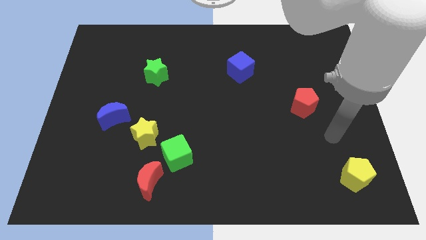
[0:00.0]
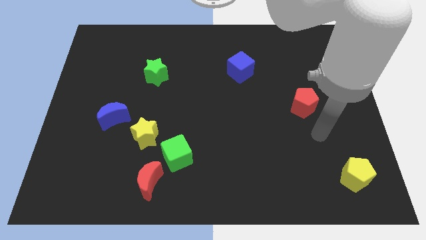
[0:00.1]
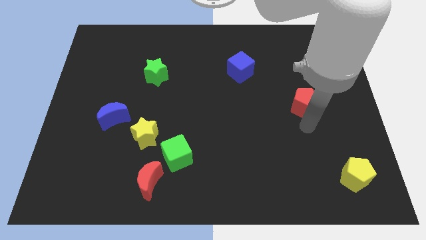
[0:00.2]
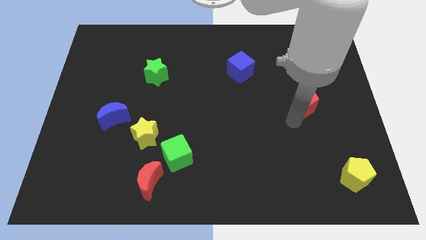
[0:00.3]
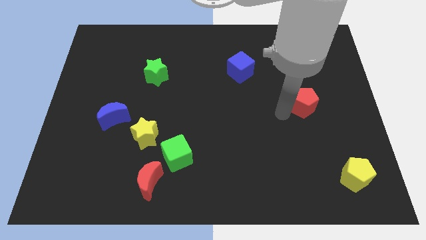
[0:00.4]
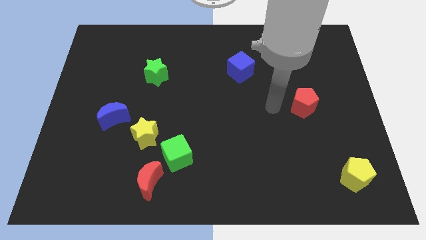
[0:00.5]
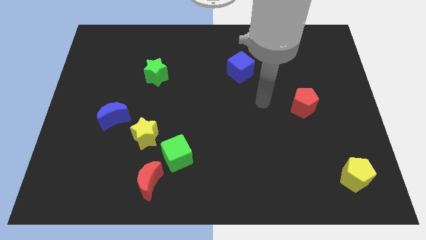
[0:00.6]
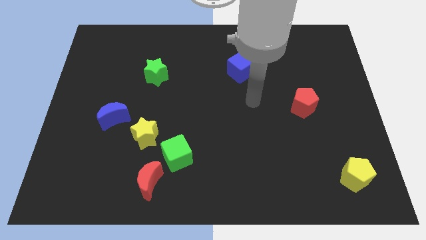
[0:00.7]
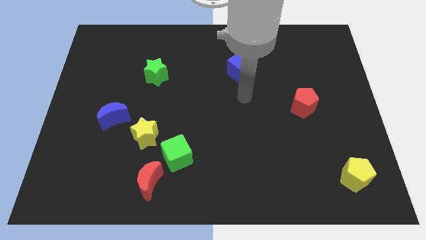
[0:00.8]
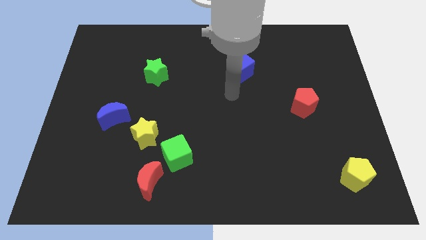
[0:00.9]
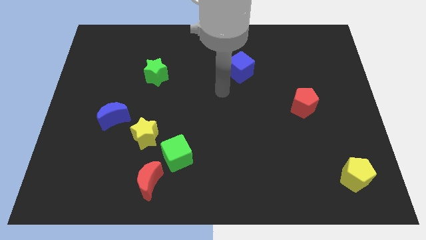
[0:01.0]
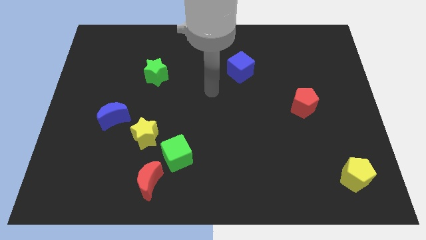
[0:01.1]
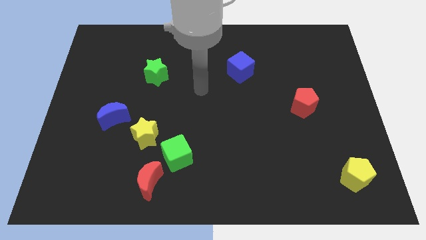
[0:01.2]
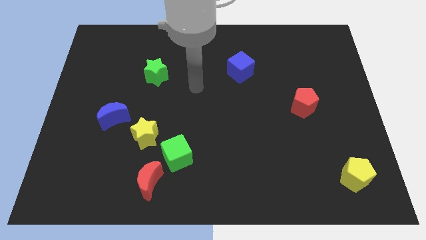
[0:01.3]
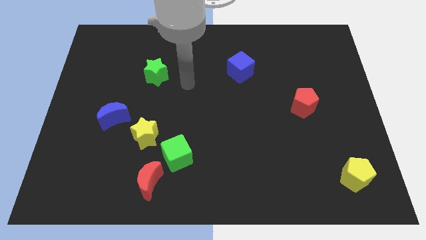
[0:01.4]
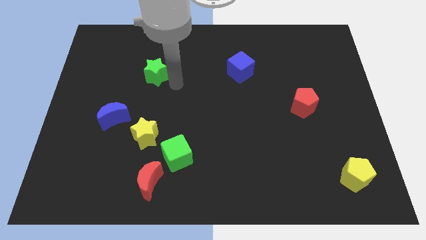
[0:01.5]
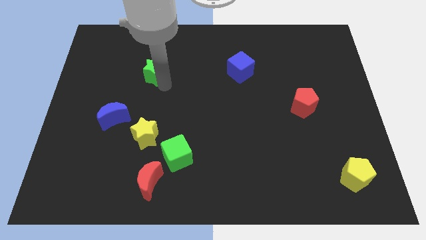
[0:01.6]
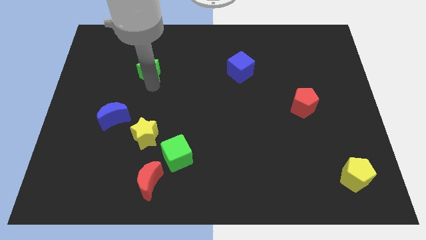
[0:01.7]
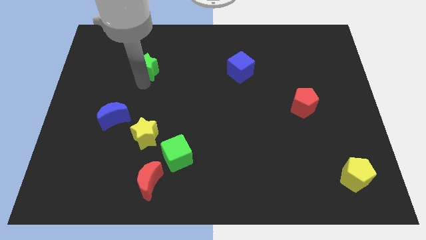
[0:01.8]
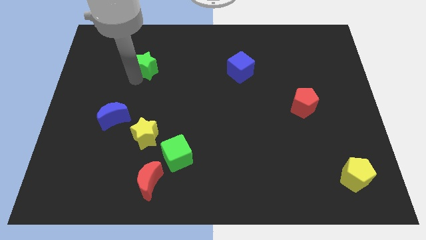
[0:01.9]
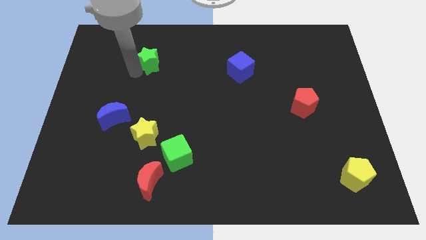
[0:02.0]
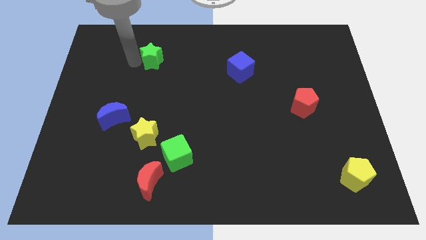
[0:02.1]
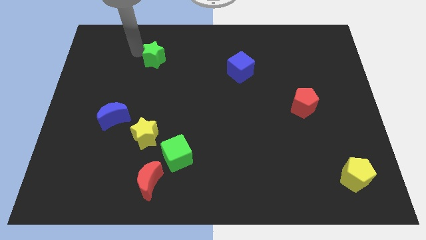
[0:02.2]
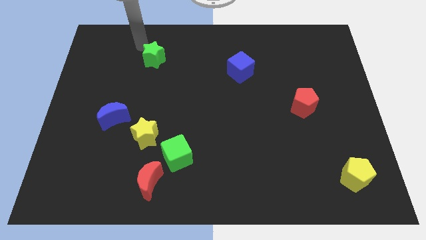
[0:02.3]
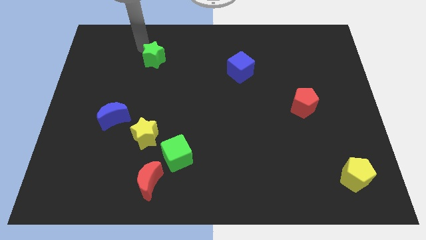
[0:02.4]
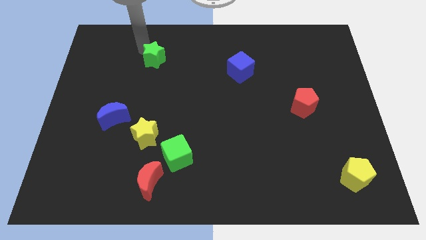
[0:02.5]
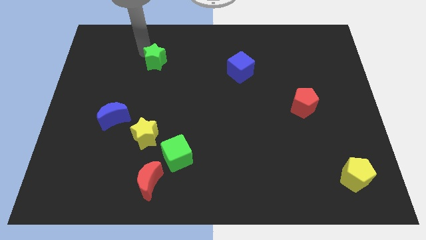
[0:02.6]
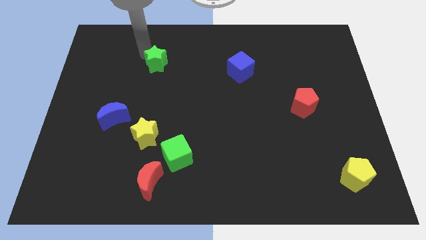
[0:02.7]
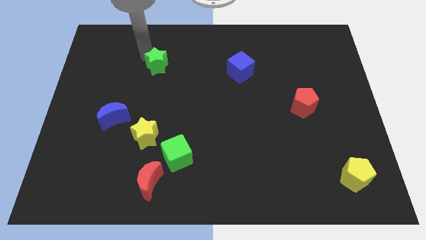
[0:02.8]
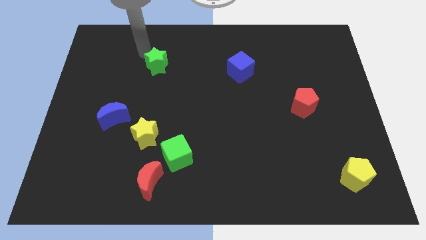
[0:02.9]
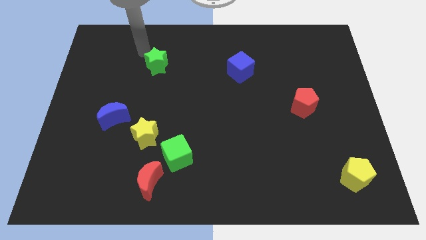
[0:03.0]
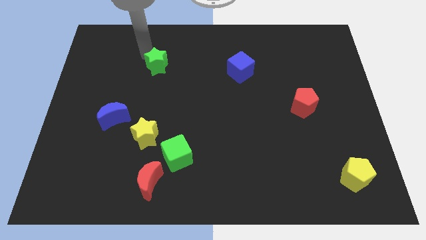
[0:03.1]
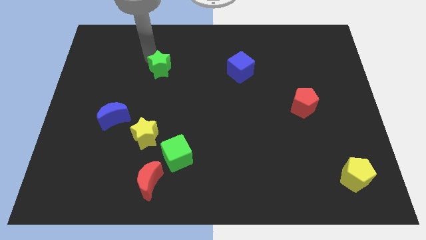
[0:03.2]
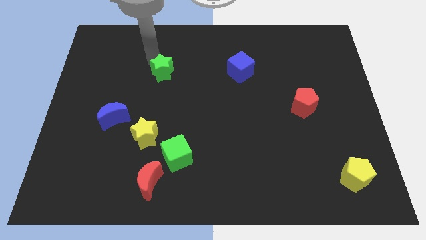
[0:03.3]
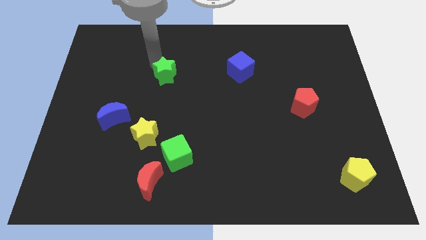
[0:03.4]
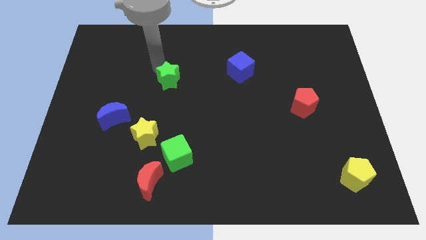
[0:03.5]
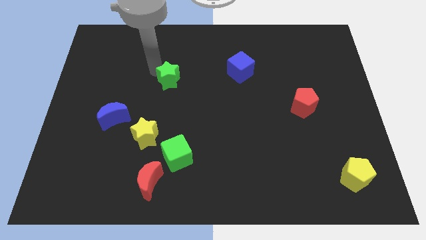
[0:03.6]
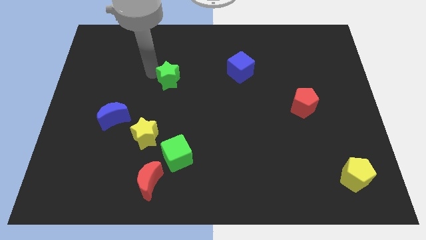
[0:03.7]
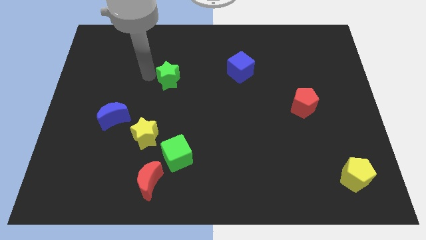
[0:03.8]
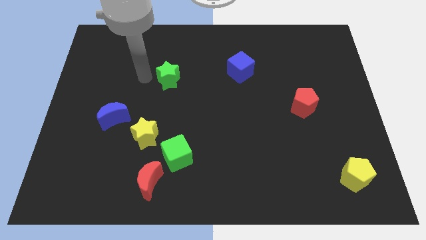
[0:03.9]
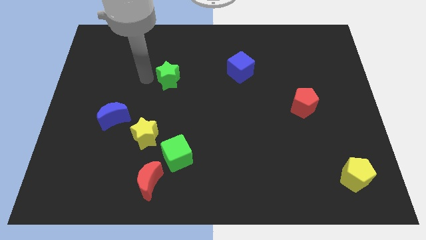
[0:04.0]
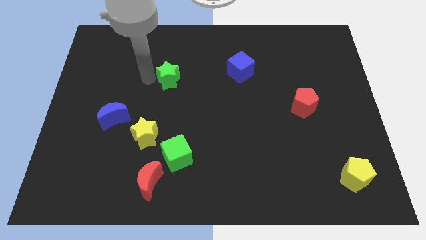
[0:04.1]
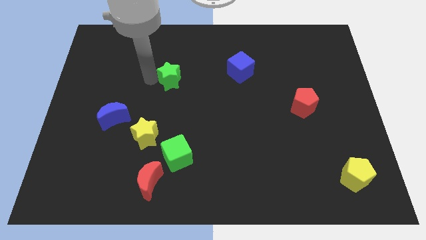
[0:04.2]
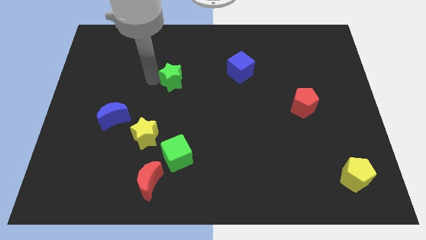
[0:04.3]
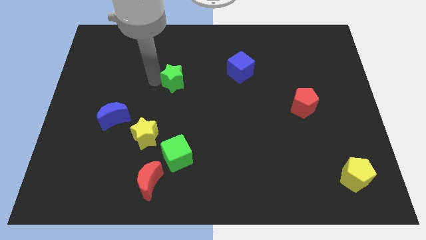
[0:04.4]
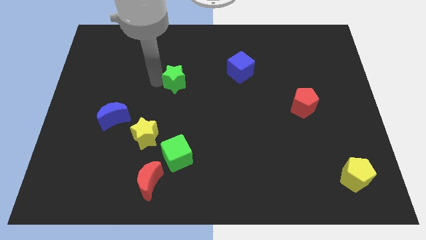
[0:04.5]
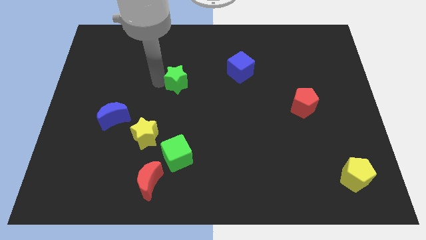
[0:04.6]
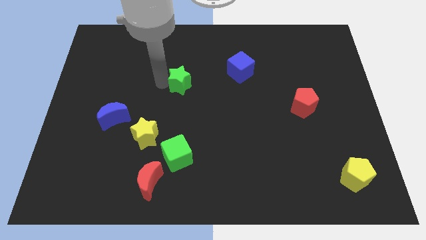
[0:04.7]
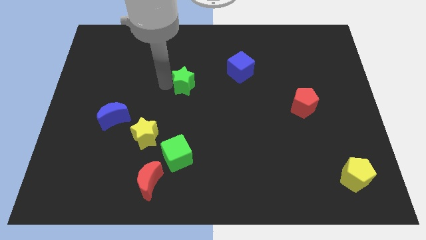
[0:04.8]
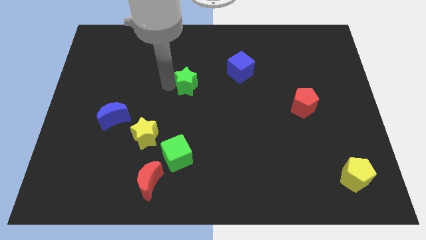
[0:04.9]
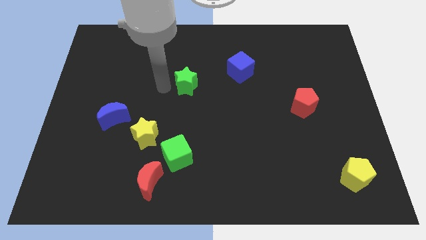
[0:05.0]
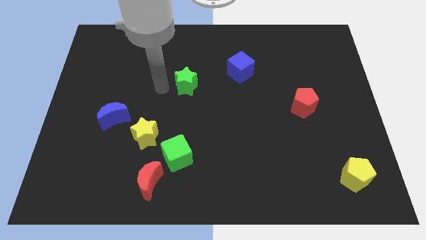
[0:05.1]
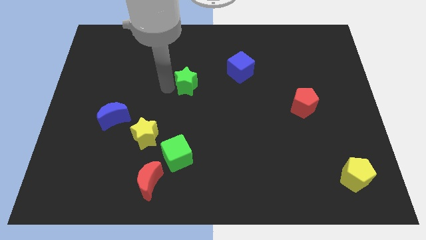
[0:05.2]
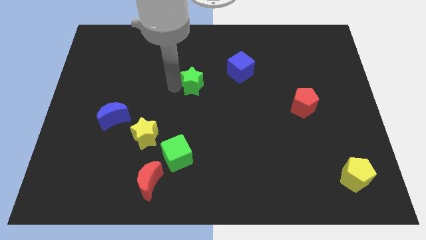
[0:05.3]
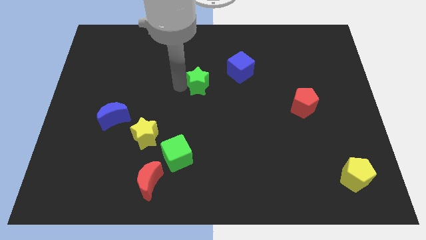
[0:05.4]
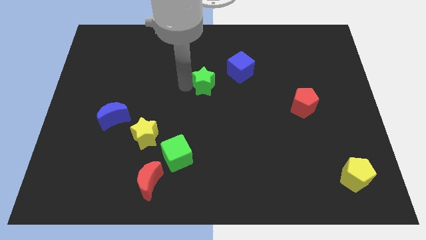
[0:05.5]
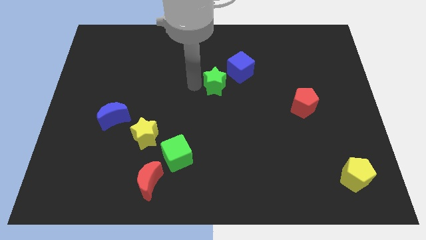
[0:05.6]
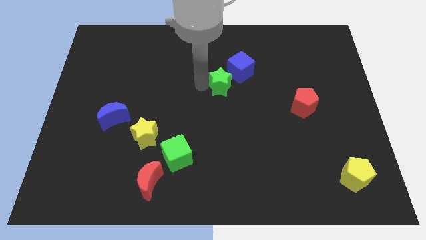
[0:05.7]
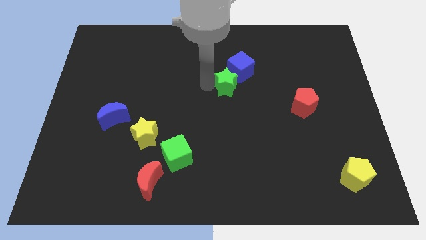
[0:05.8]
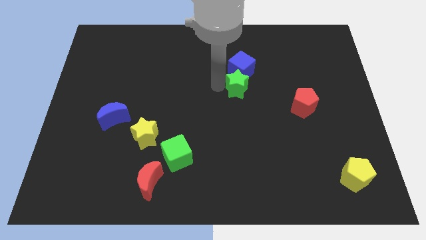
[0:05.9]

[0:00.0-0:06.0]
slide the green star to the right

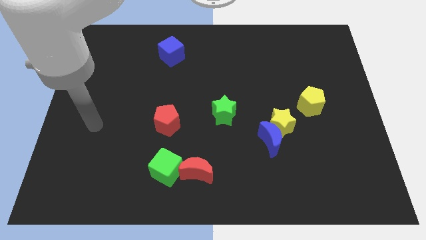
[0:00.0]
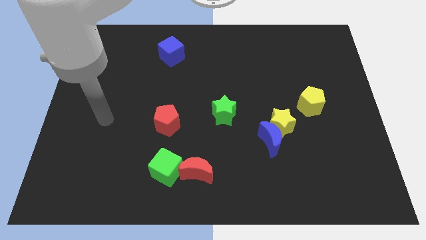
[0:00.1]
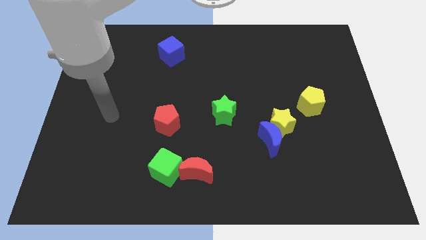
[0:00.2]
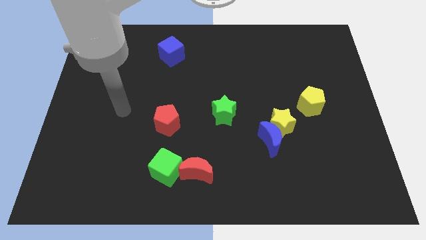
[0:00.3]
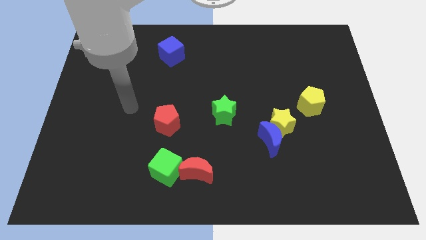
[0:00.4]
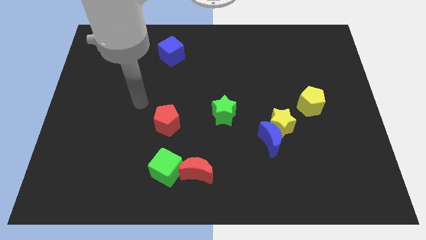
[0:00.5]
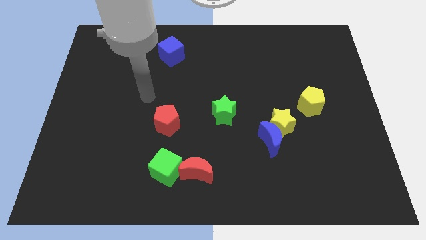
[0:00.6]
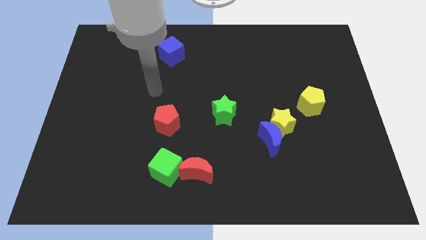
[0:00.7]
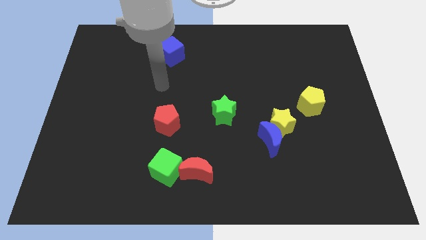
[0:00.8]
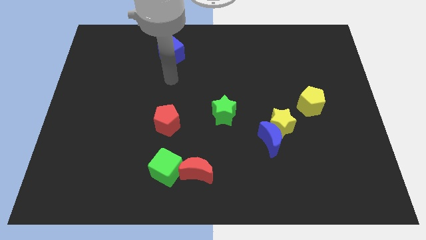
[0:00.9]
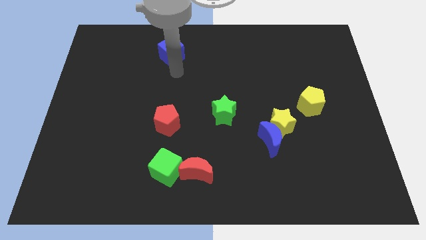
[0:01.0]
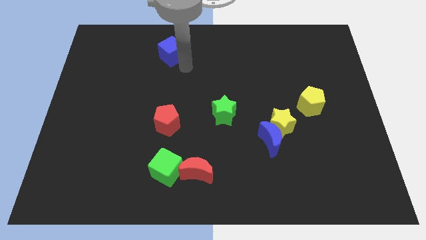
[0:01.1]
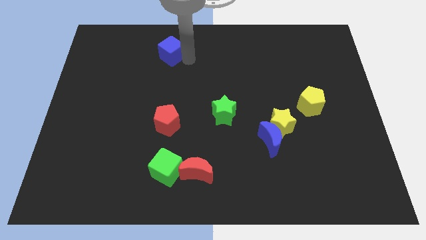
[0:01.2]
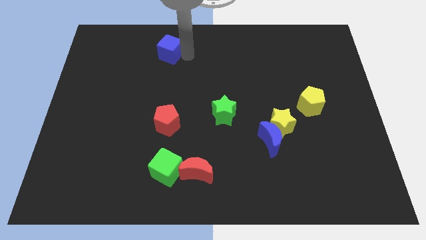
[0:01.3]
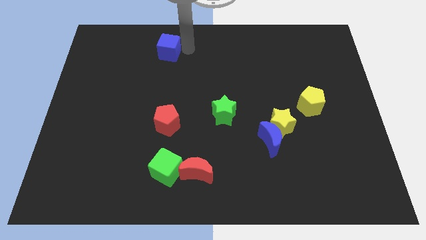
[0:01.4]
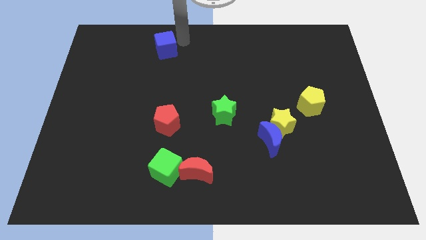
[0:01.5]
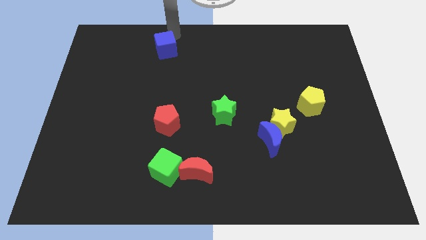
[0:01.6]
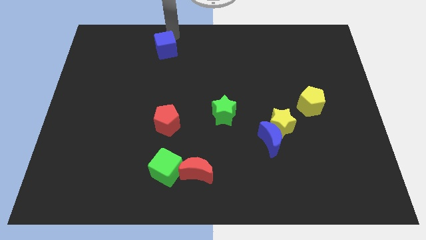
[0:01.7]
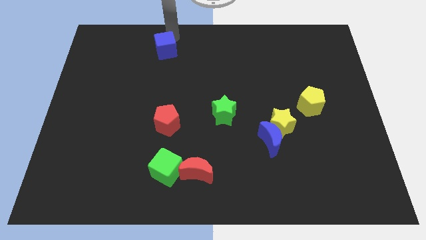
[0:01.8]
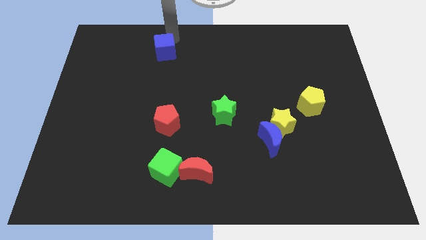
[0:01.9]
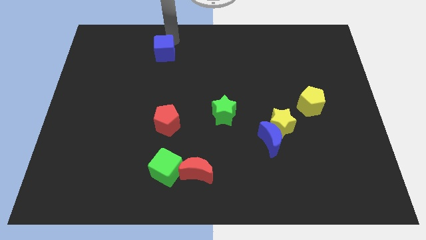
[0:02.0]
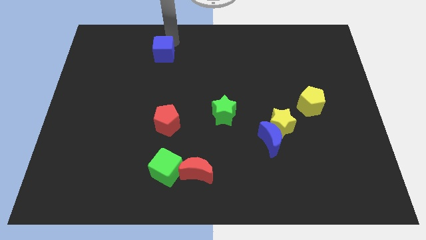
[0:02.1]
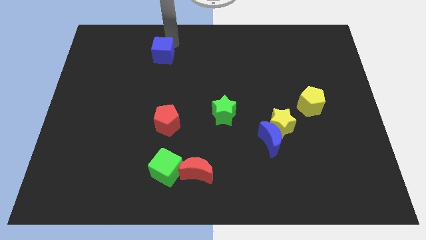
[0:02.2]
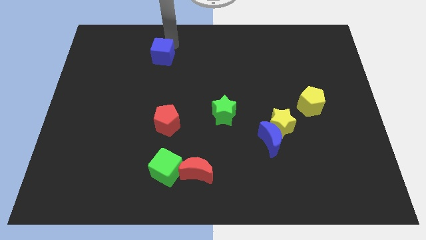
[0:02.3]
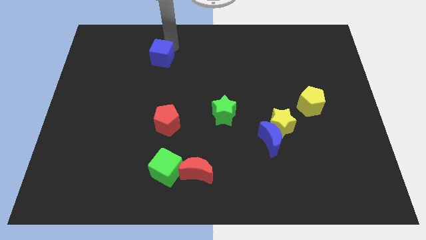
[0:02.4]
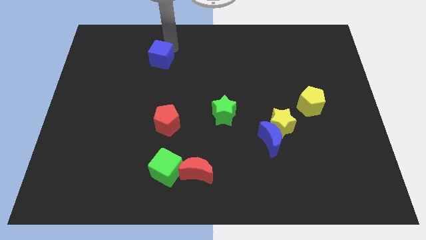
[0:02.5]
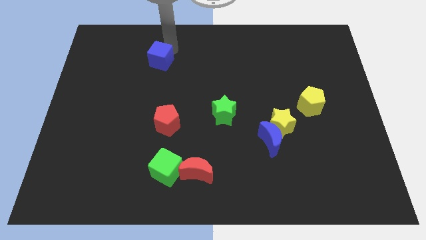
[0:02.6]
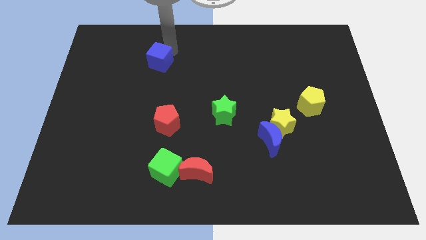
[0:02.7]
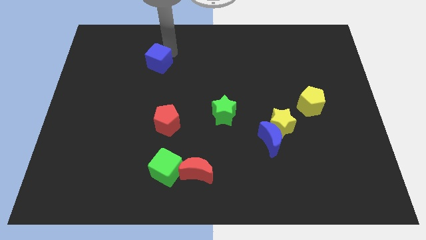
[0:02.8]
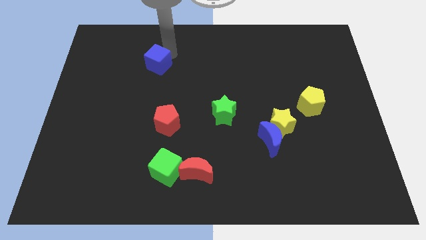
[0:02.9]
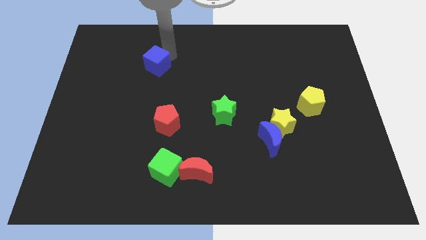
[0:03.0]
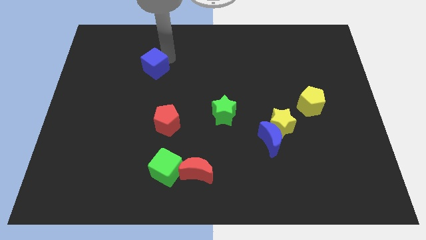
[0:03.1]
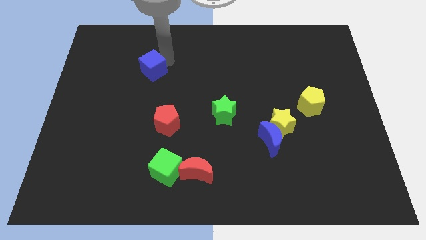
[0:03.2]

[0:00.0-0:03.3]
push the blue cube downwards and then to the left slightly
